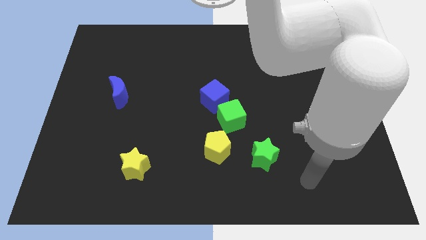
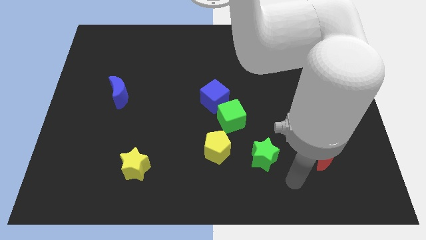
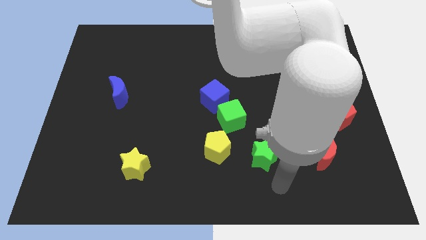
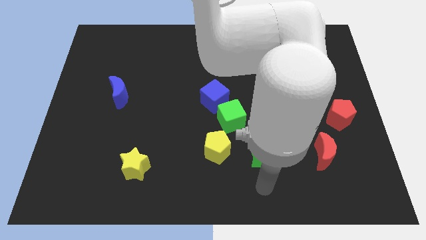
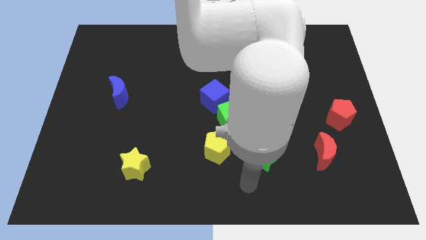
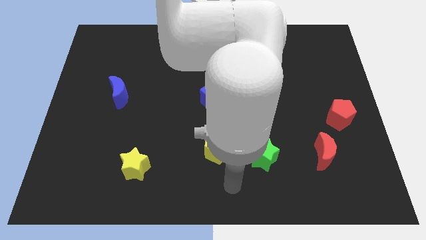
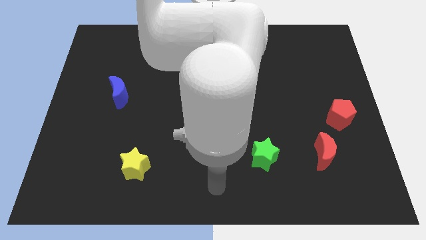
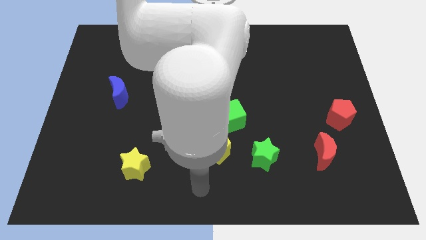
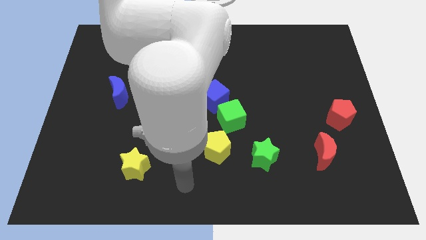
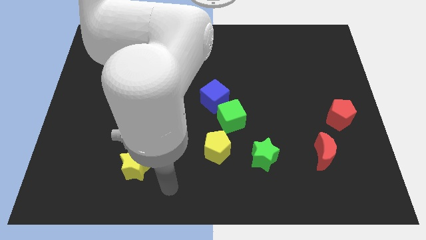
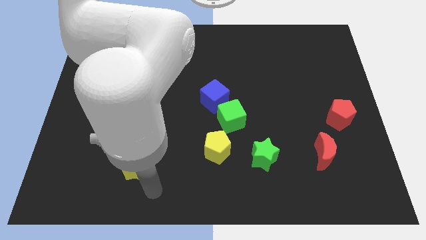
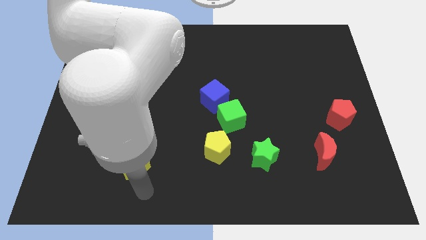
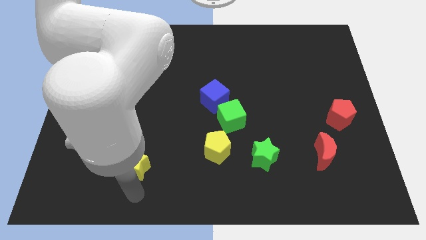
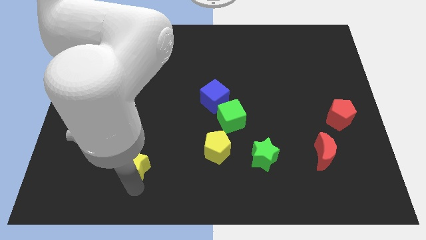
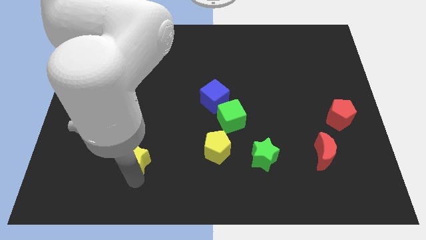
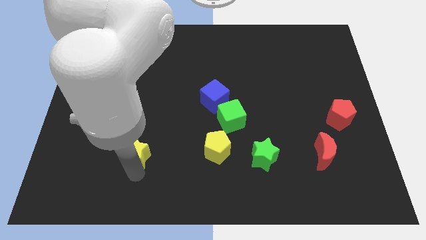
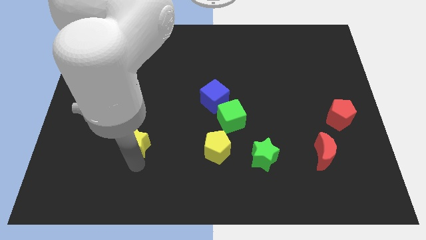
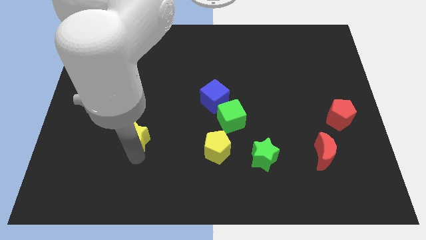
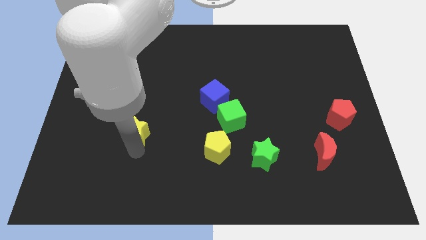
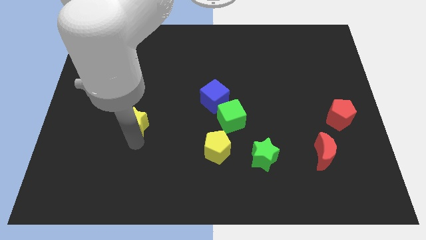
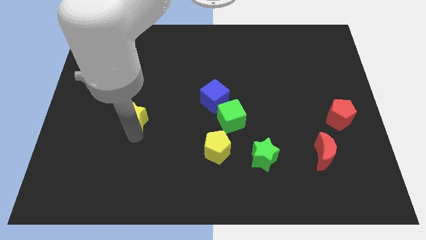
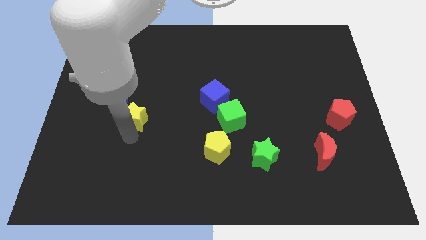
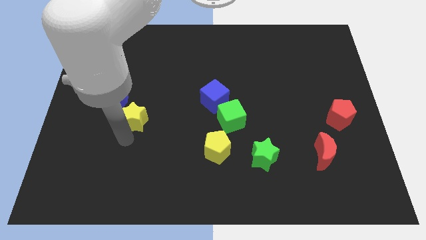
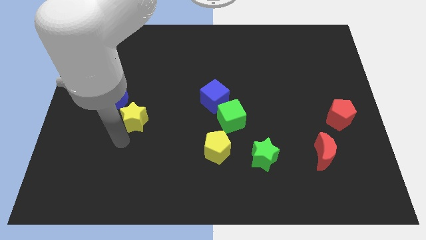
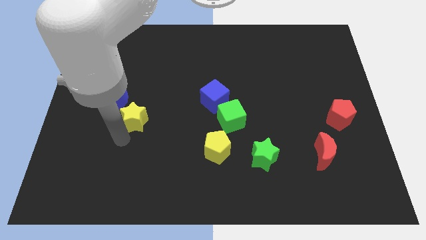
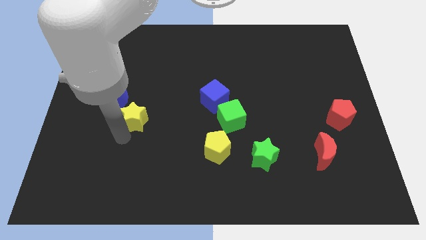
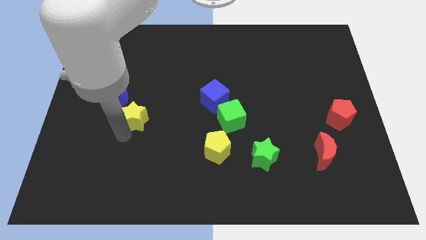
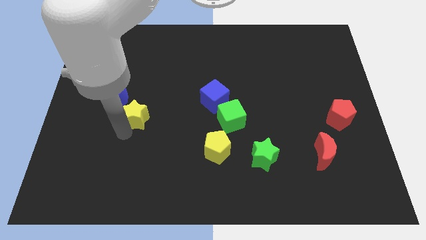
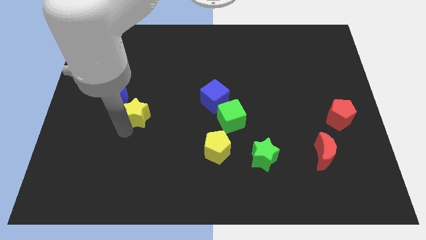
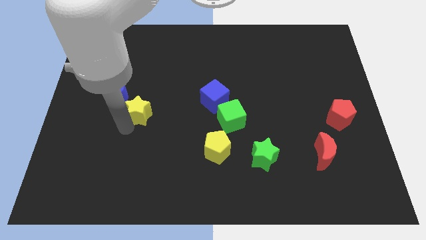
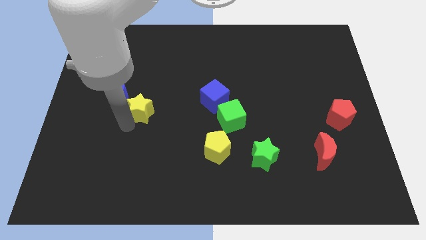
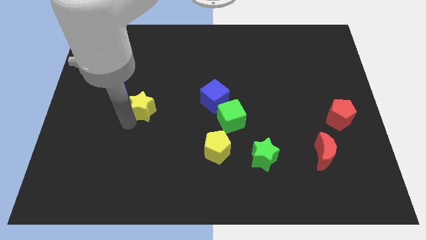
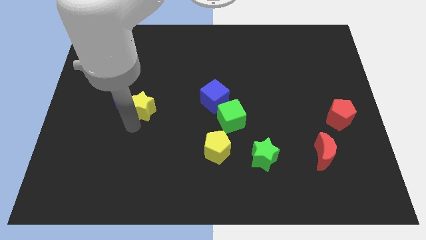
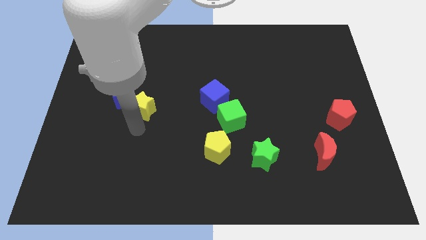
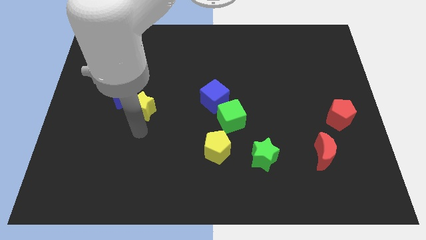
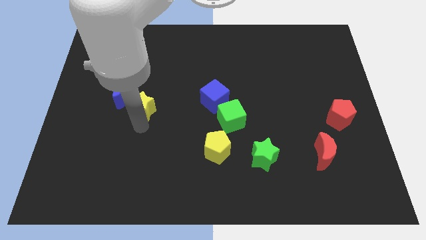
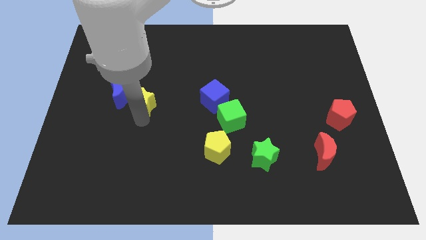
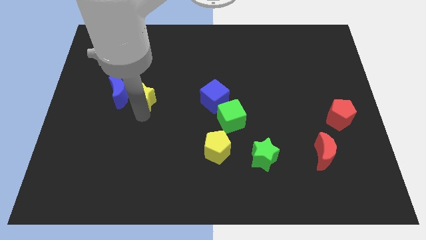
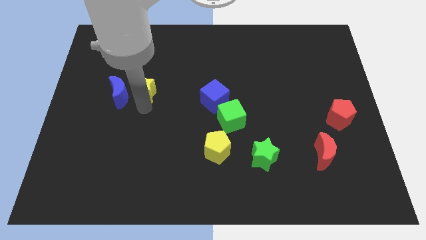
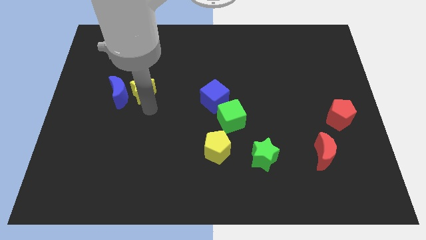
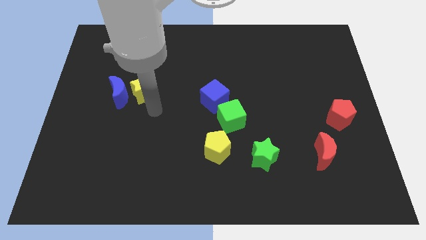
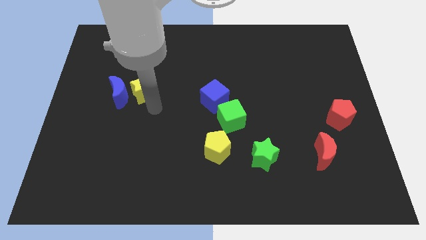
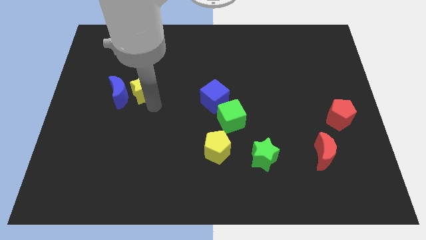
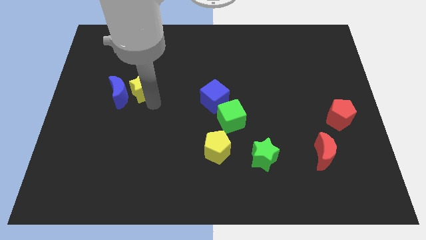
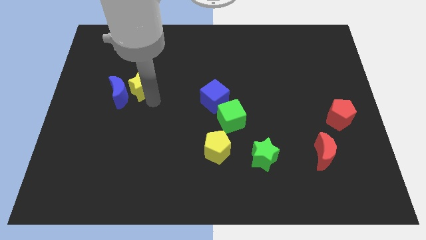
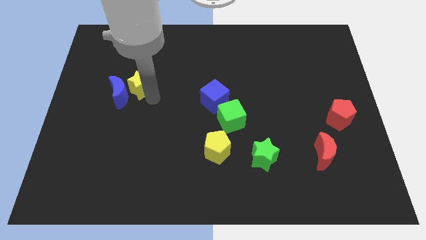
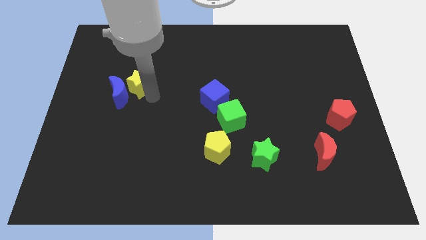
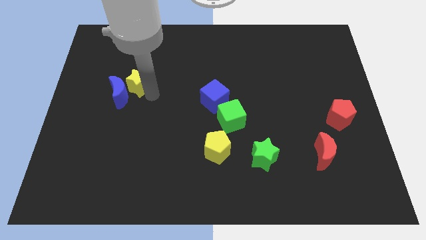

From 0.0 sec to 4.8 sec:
put the yellow star to the top side of the blue moon

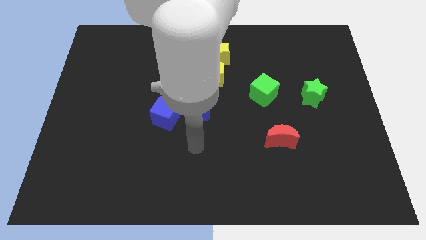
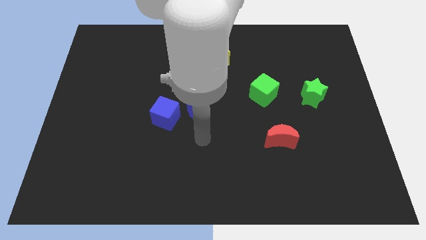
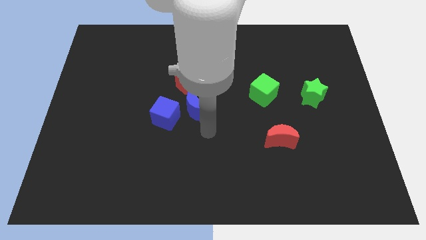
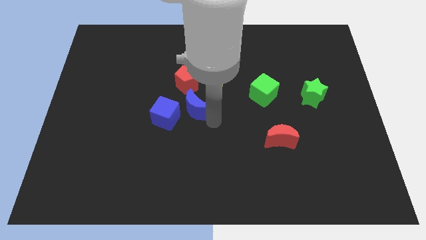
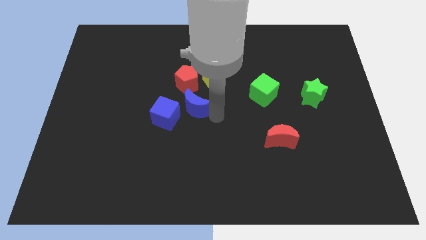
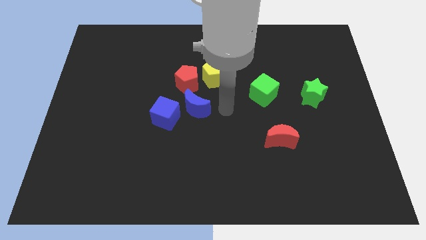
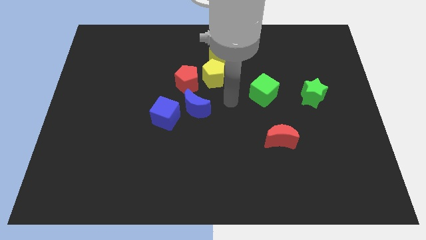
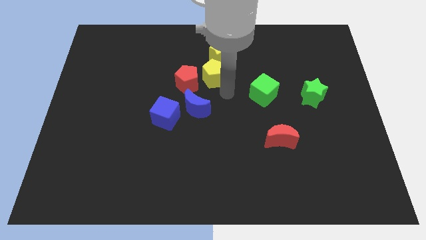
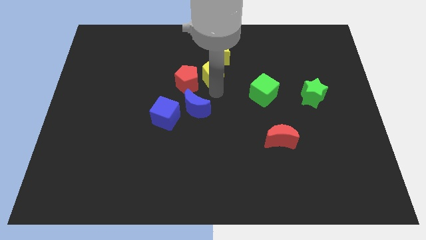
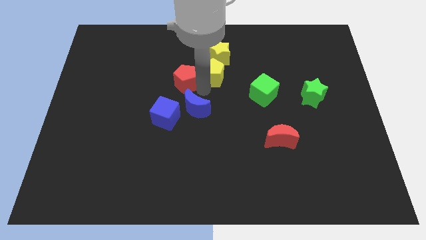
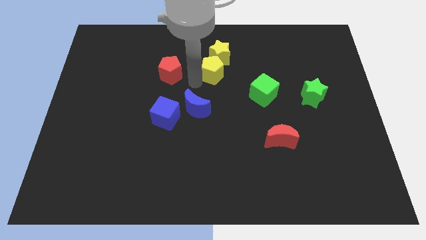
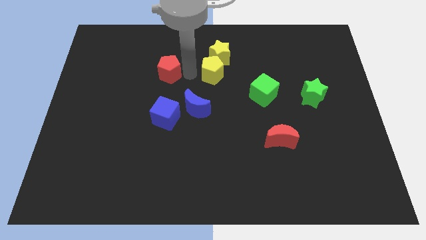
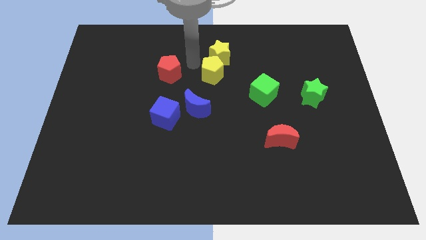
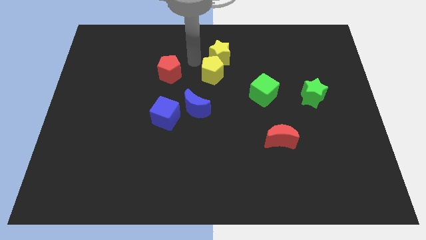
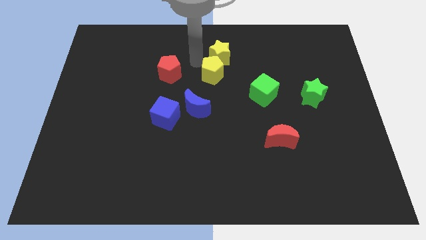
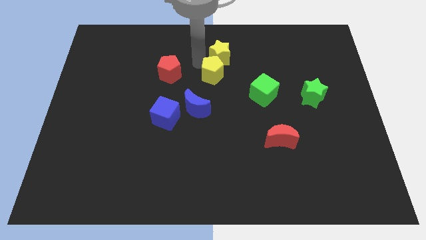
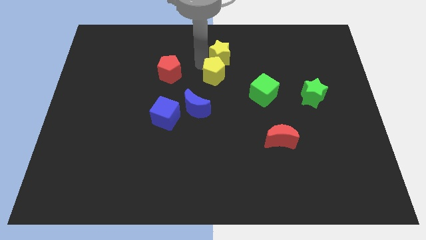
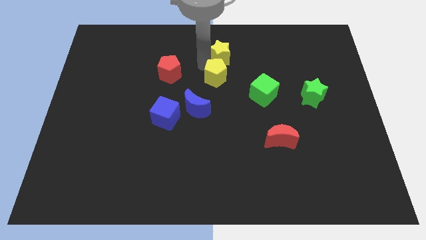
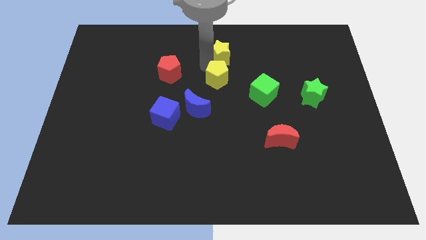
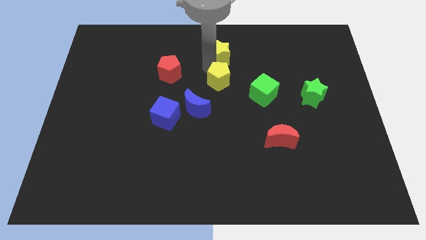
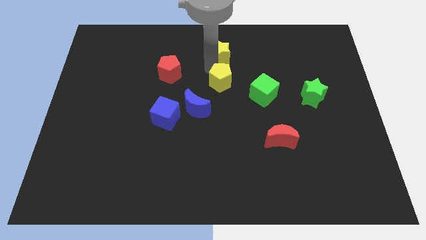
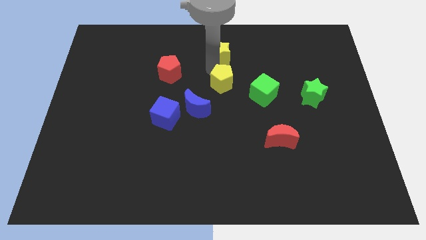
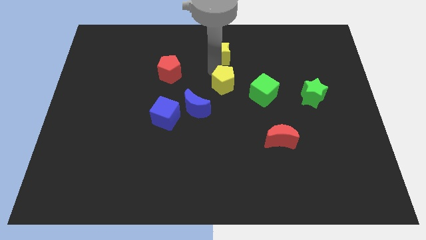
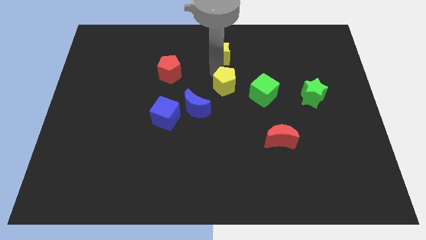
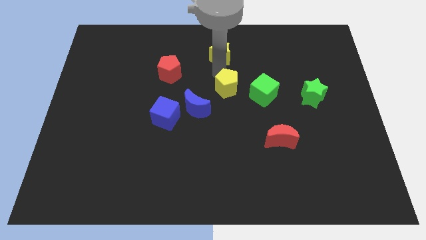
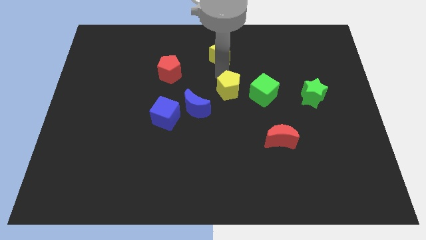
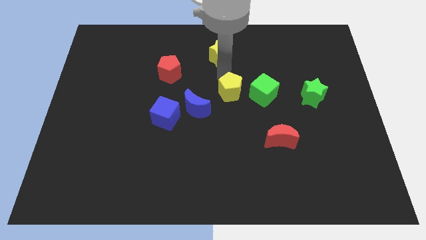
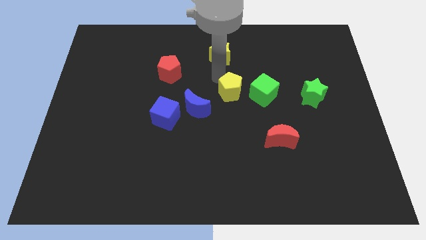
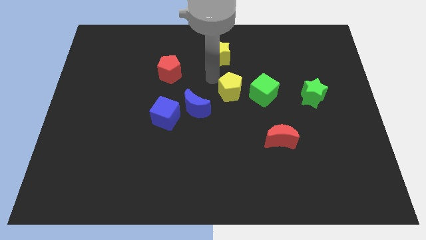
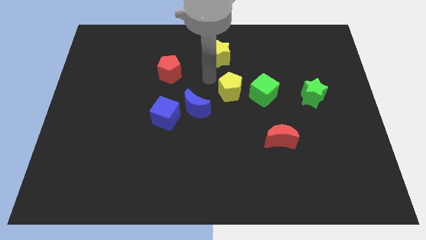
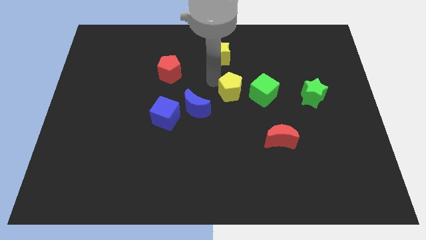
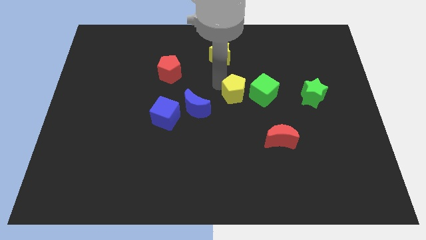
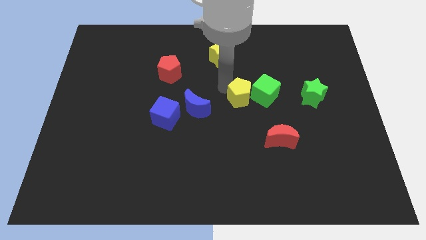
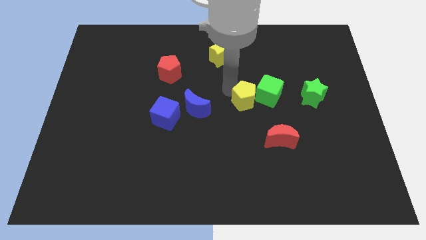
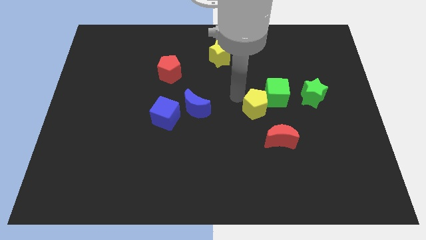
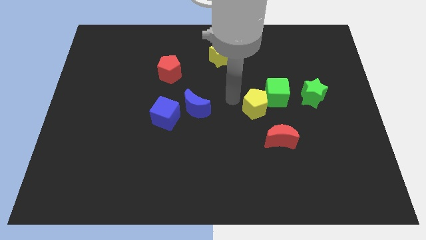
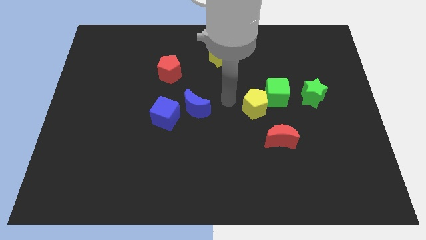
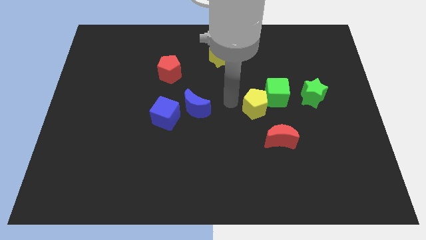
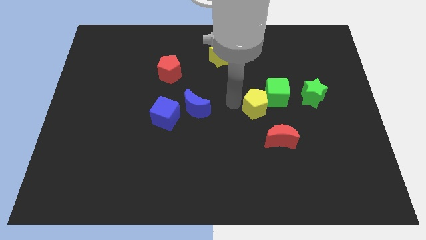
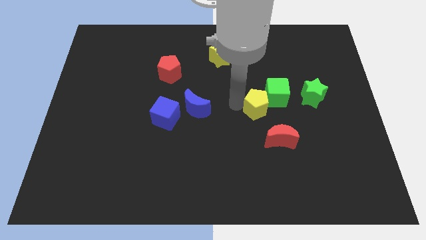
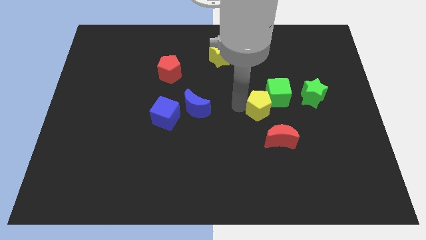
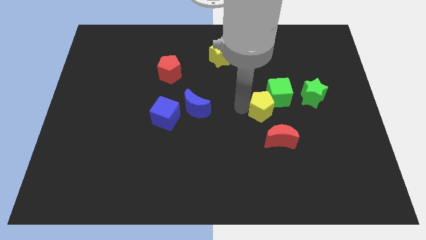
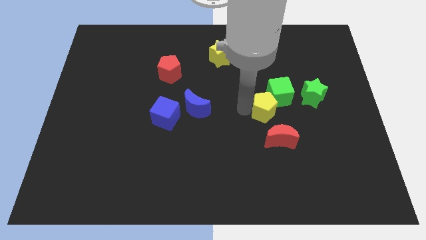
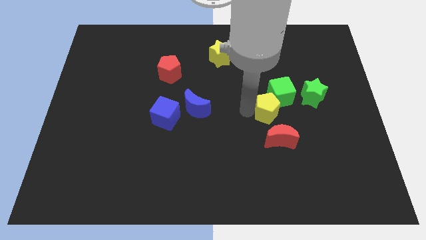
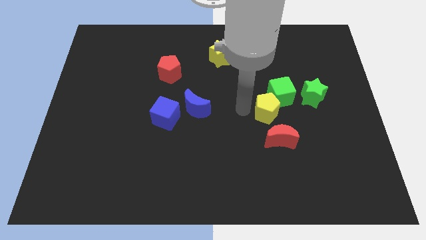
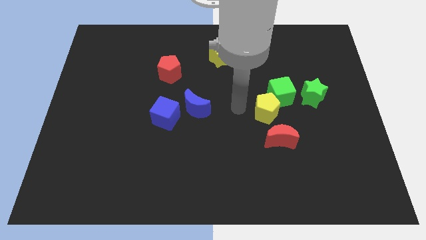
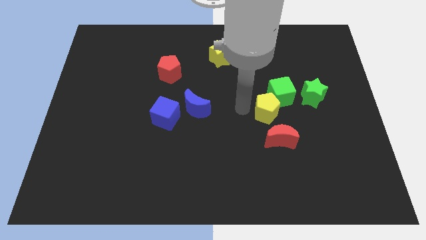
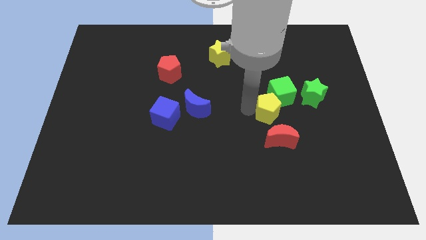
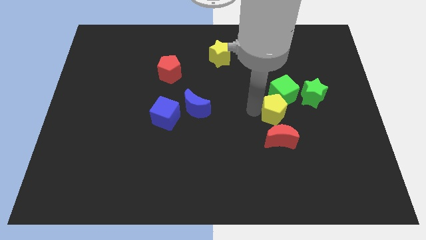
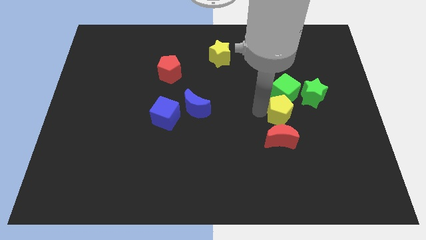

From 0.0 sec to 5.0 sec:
put the yellow pentagon to the top right side of the red moon
